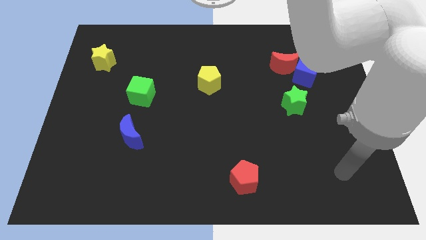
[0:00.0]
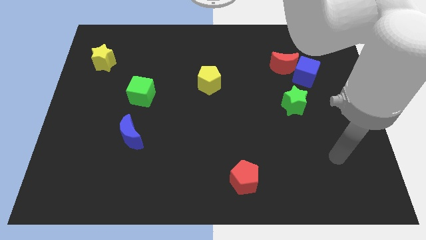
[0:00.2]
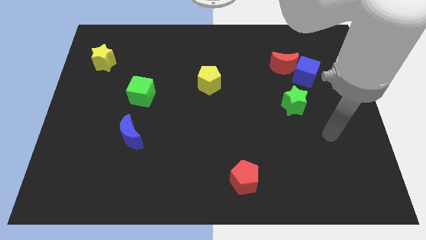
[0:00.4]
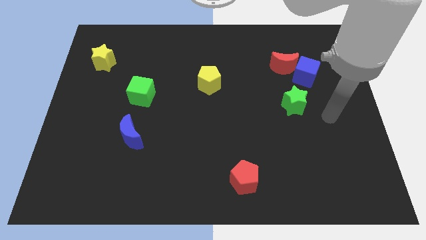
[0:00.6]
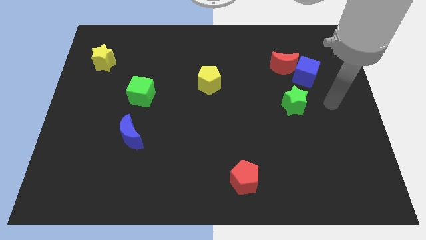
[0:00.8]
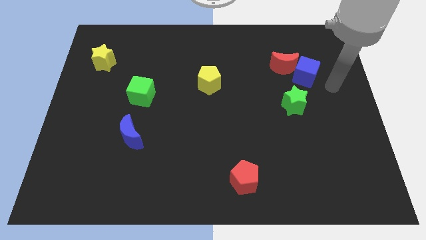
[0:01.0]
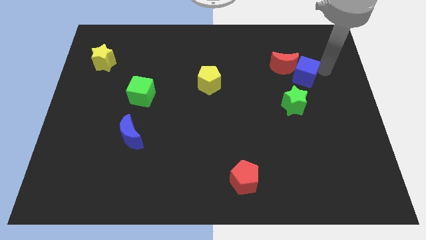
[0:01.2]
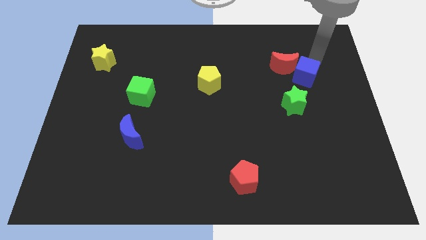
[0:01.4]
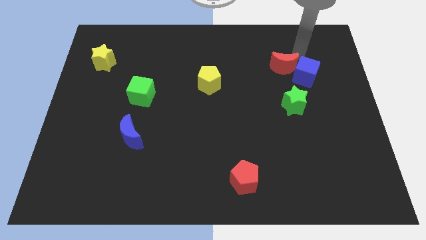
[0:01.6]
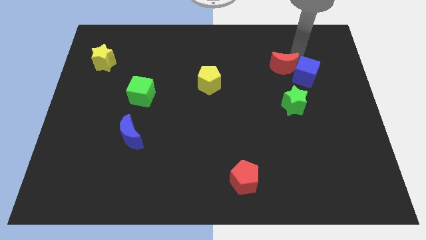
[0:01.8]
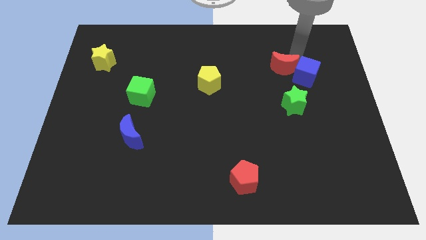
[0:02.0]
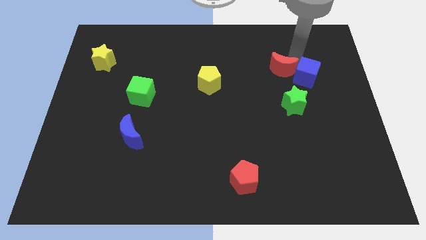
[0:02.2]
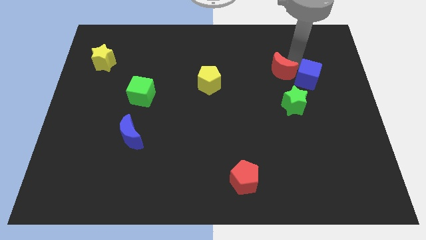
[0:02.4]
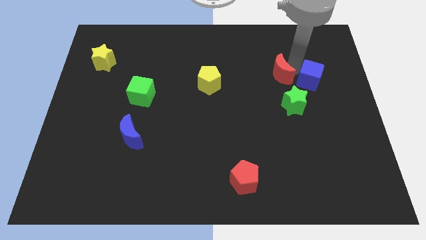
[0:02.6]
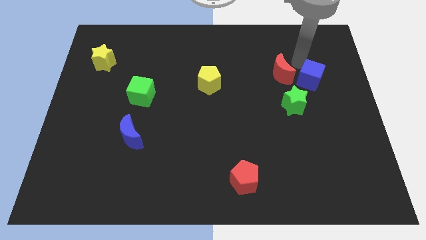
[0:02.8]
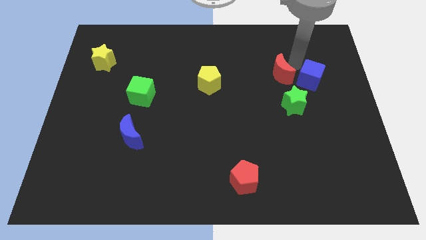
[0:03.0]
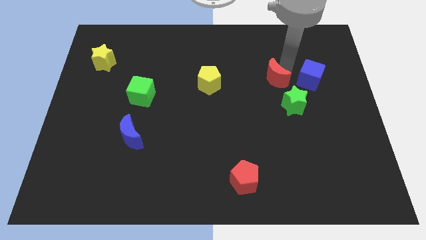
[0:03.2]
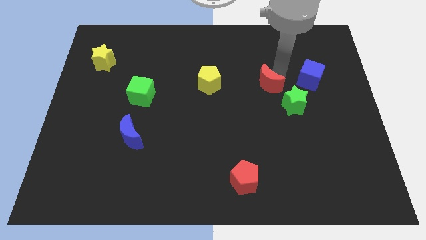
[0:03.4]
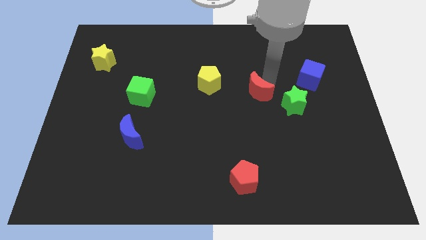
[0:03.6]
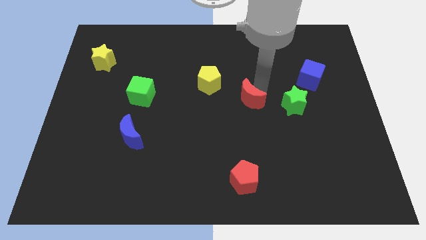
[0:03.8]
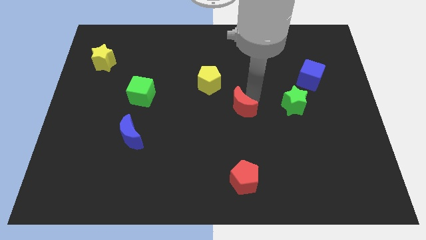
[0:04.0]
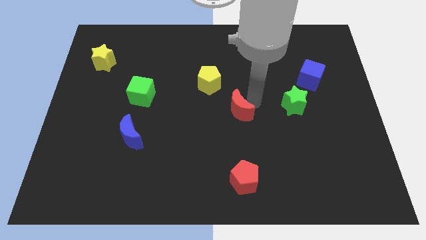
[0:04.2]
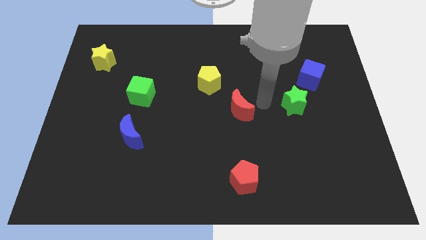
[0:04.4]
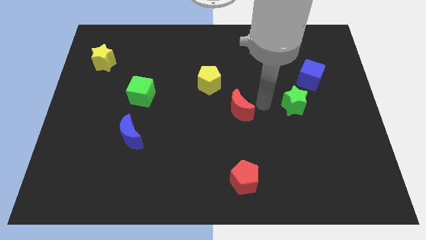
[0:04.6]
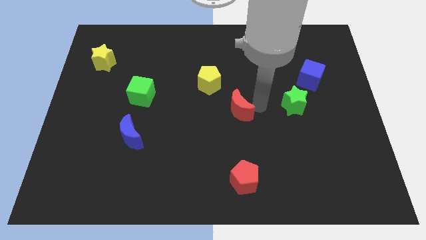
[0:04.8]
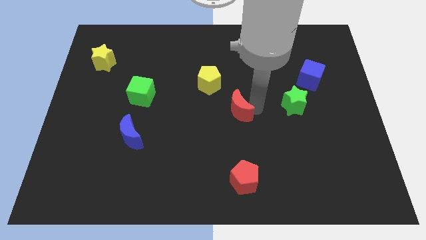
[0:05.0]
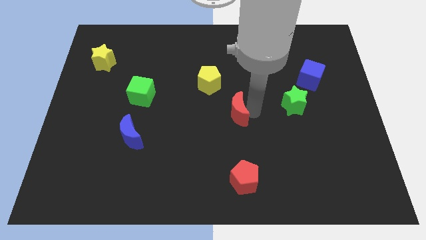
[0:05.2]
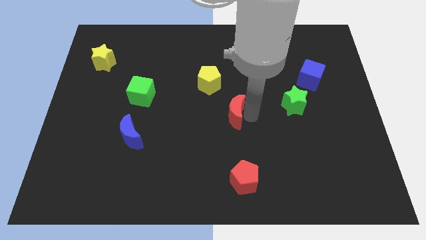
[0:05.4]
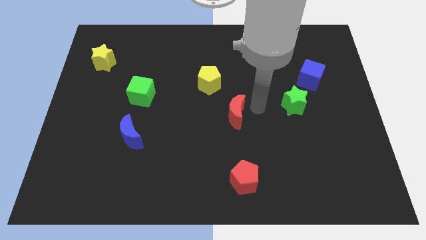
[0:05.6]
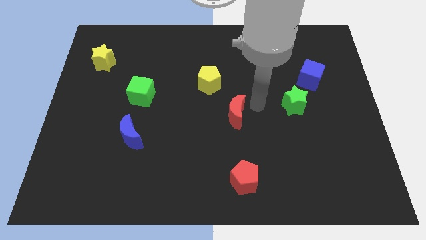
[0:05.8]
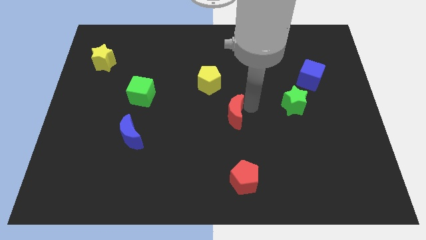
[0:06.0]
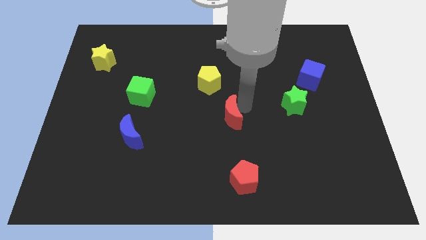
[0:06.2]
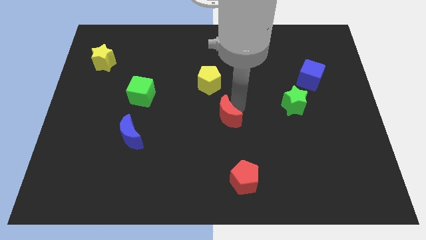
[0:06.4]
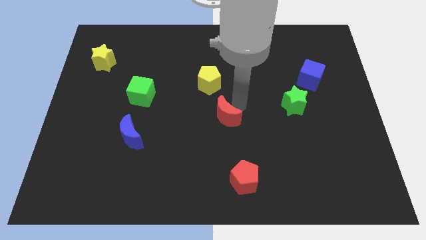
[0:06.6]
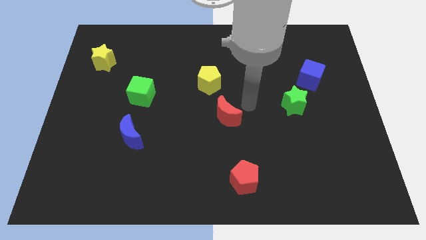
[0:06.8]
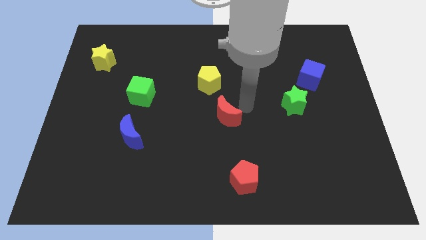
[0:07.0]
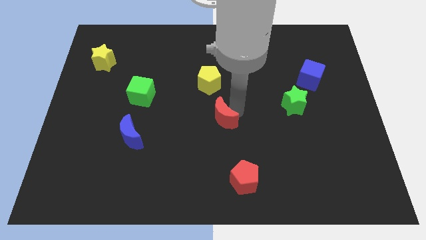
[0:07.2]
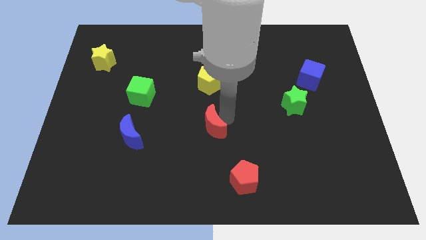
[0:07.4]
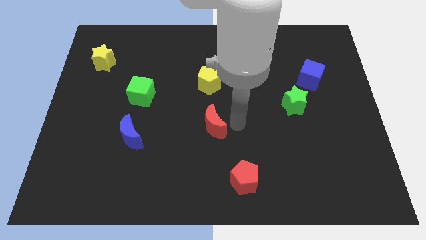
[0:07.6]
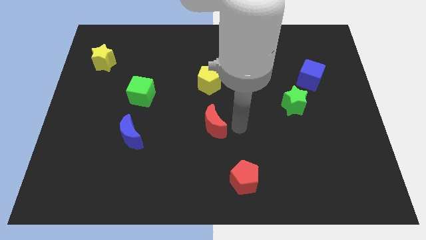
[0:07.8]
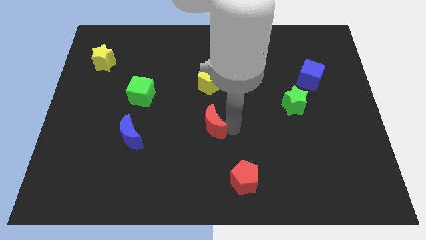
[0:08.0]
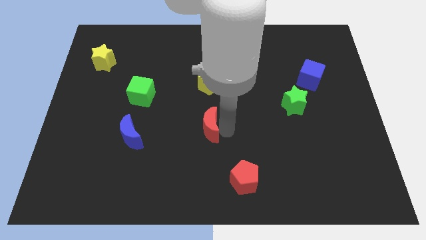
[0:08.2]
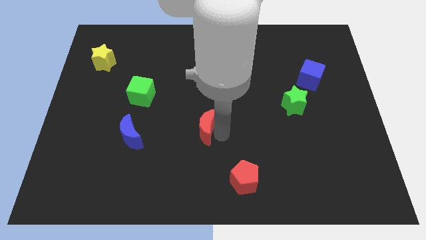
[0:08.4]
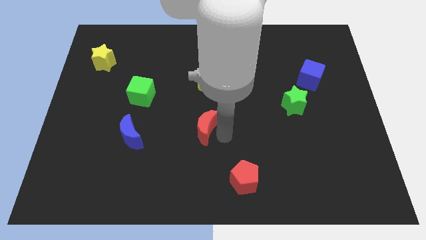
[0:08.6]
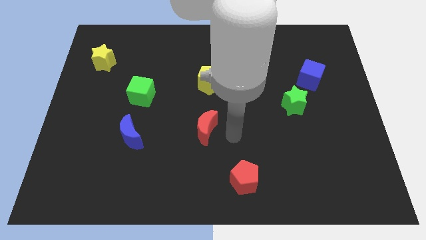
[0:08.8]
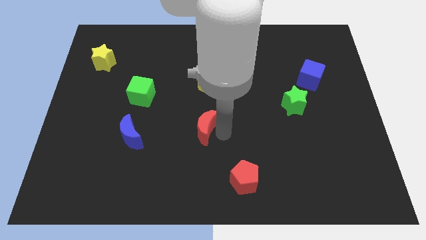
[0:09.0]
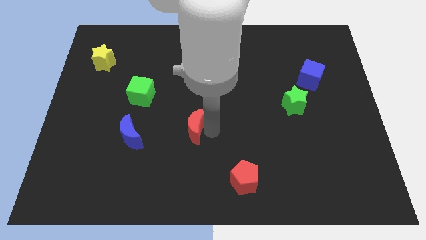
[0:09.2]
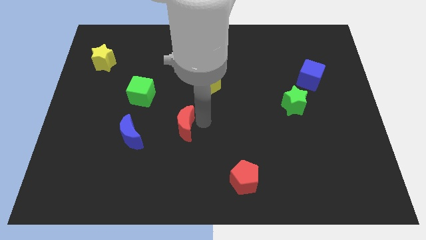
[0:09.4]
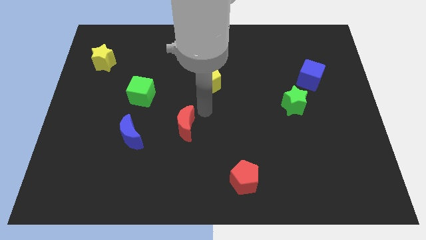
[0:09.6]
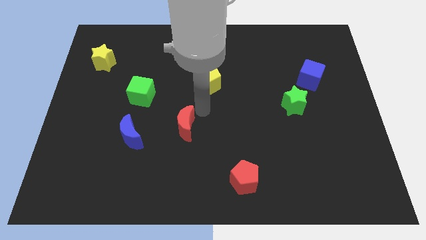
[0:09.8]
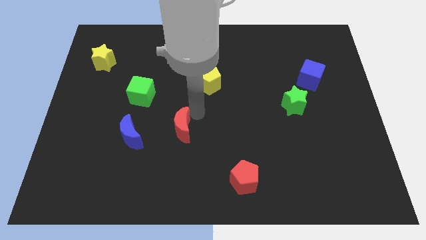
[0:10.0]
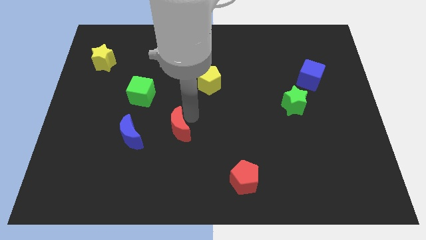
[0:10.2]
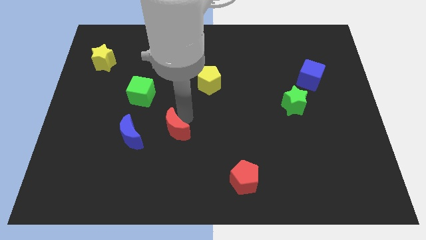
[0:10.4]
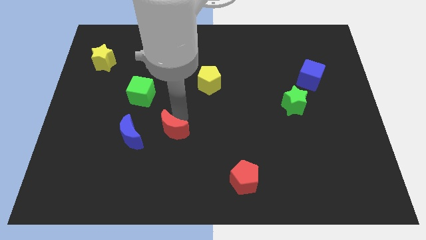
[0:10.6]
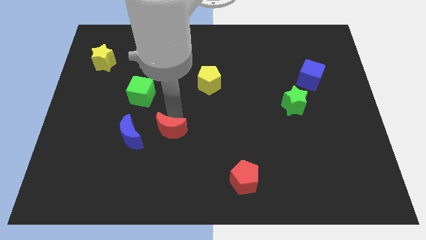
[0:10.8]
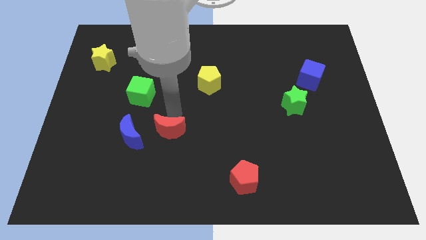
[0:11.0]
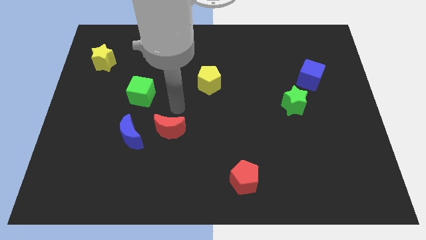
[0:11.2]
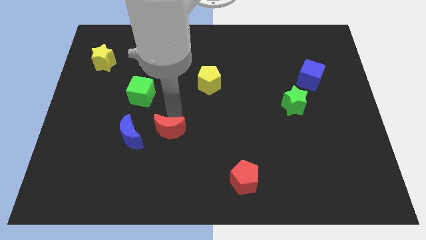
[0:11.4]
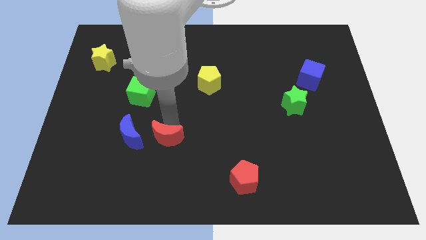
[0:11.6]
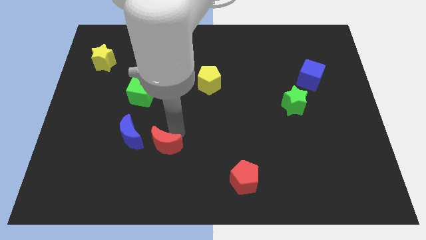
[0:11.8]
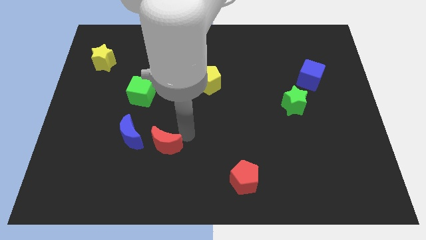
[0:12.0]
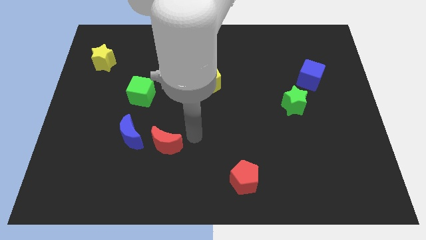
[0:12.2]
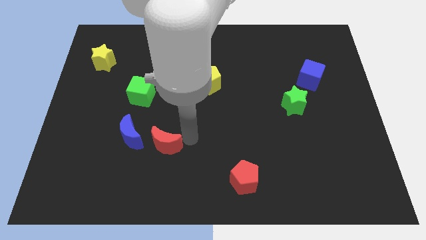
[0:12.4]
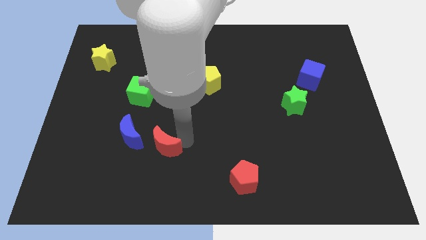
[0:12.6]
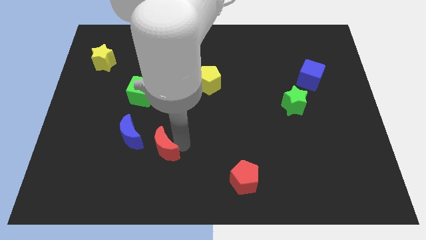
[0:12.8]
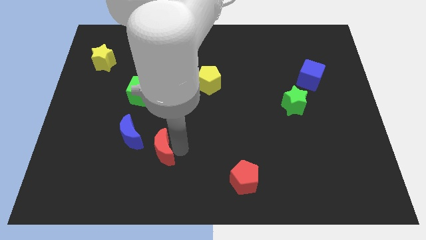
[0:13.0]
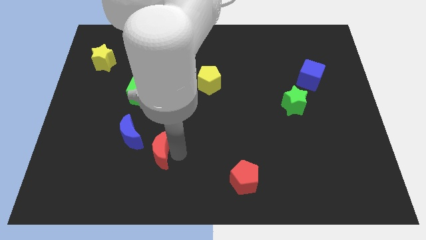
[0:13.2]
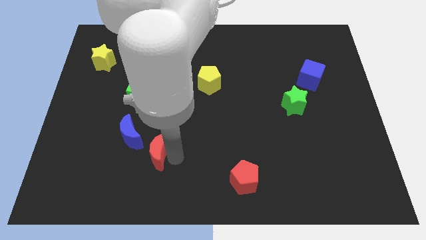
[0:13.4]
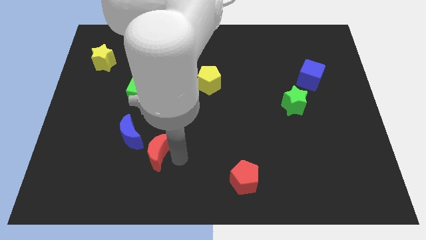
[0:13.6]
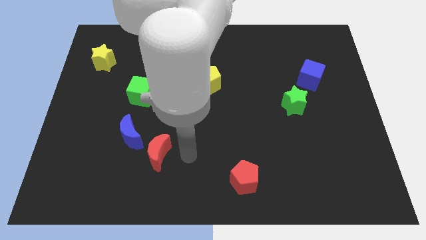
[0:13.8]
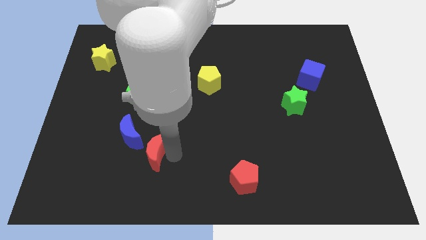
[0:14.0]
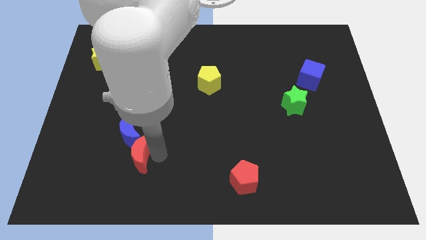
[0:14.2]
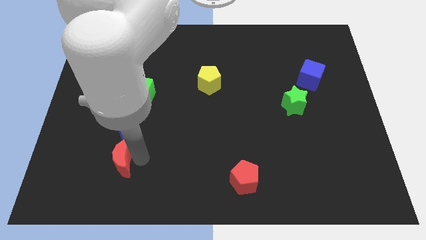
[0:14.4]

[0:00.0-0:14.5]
slide the red moon to the bottom left side of the blue moon
